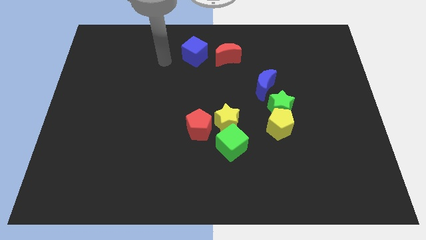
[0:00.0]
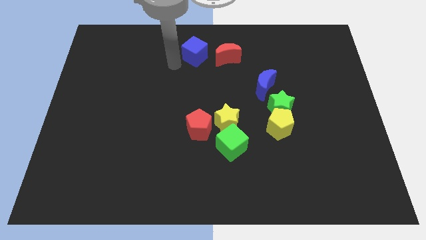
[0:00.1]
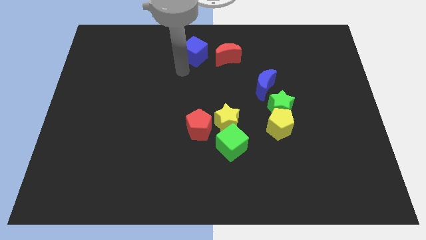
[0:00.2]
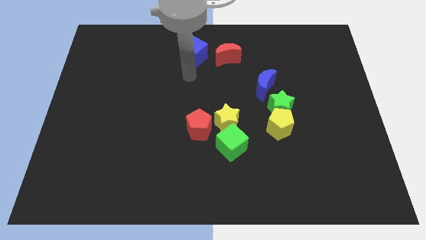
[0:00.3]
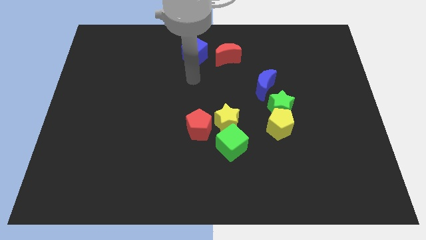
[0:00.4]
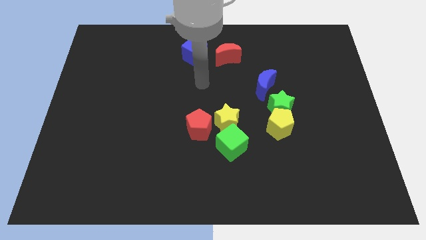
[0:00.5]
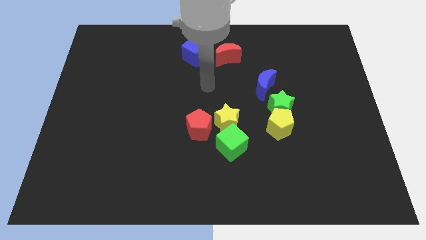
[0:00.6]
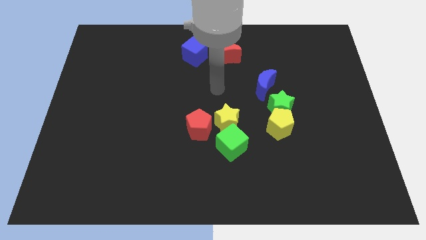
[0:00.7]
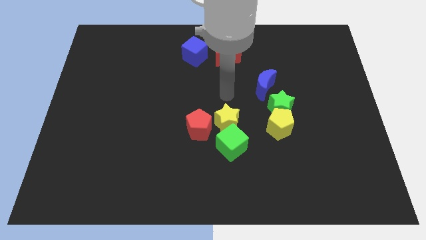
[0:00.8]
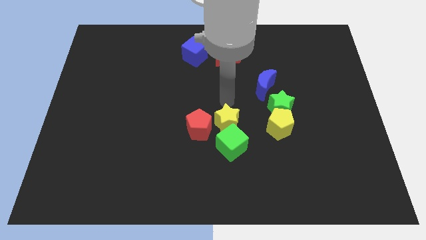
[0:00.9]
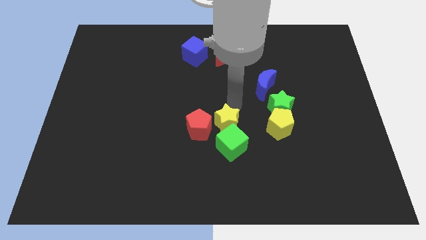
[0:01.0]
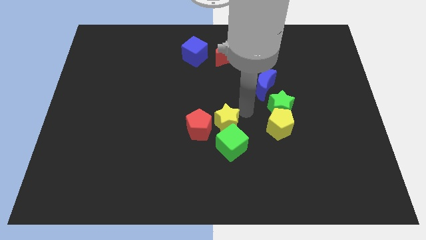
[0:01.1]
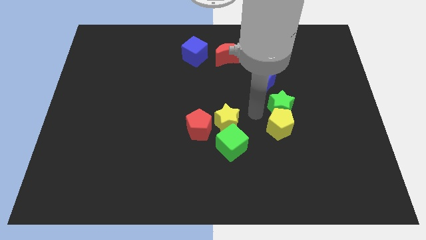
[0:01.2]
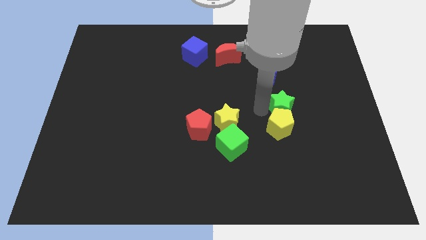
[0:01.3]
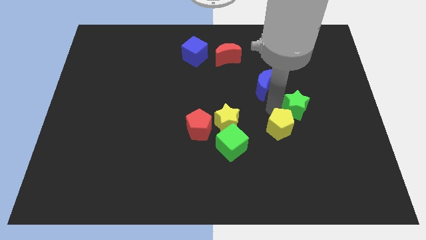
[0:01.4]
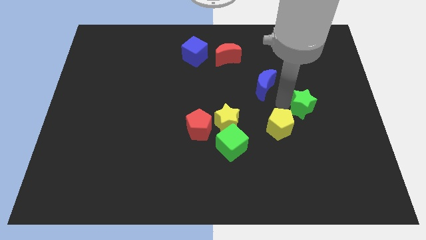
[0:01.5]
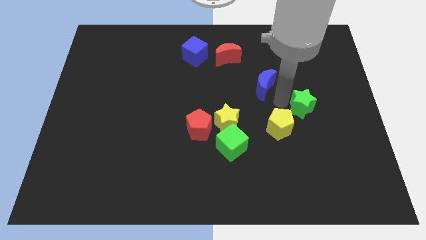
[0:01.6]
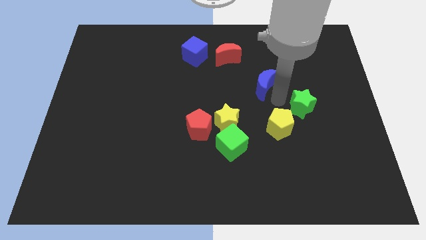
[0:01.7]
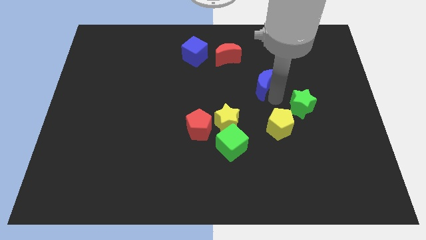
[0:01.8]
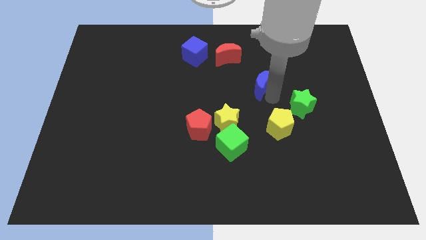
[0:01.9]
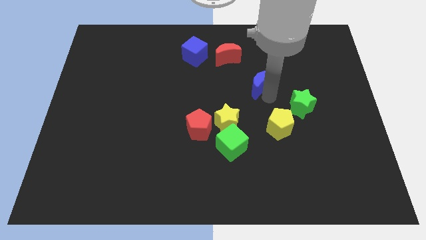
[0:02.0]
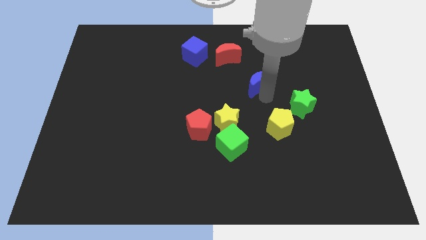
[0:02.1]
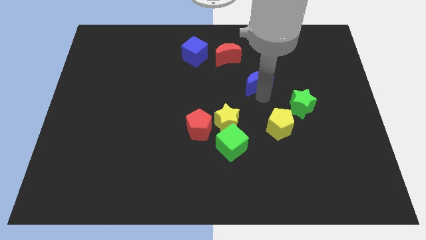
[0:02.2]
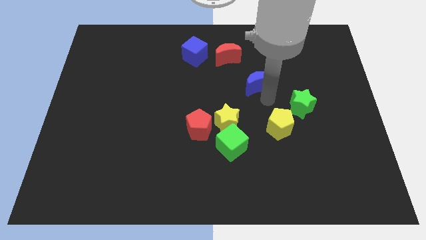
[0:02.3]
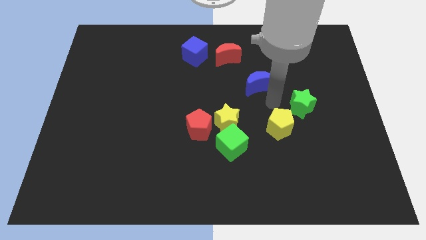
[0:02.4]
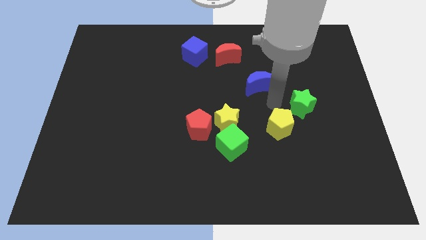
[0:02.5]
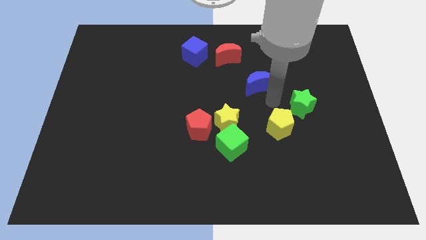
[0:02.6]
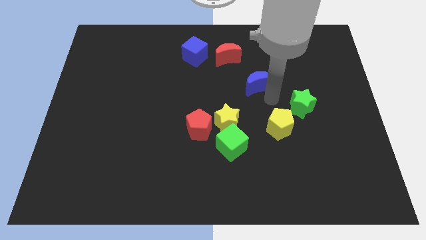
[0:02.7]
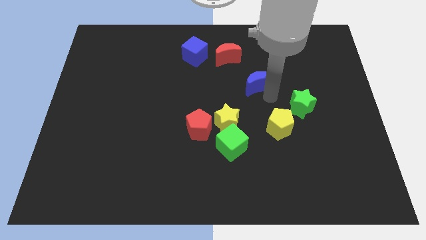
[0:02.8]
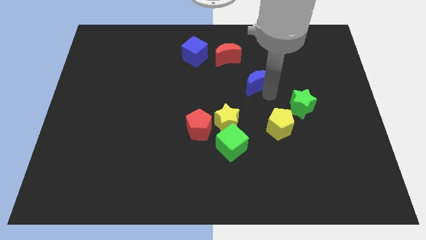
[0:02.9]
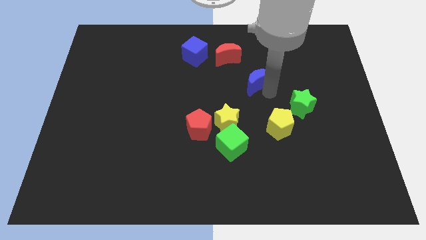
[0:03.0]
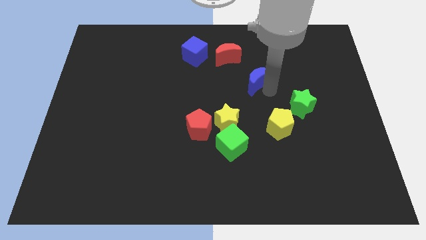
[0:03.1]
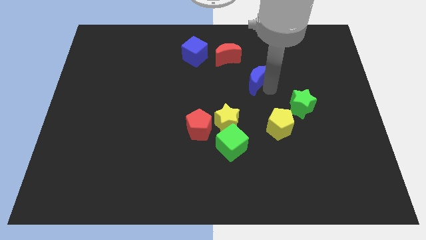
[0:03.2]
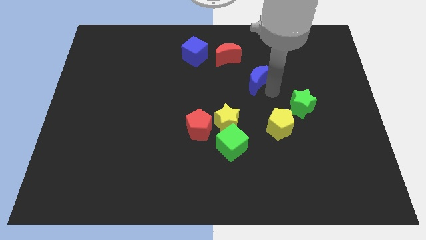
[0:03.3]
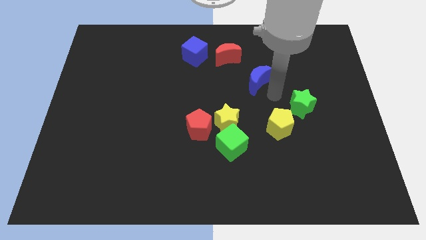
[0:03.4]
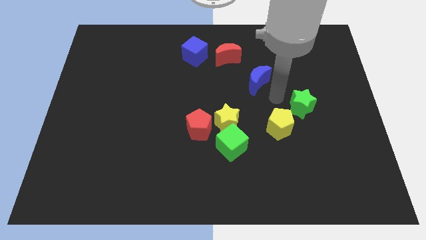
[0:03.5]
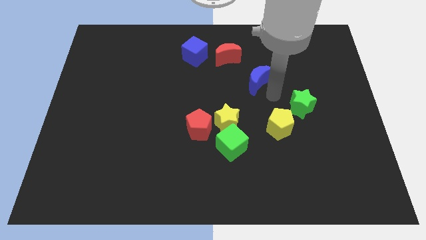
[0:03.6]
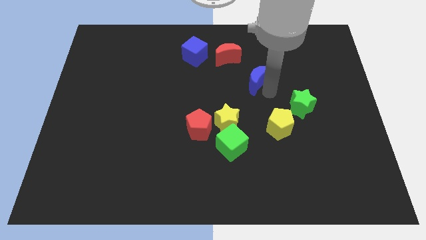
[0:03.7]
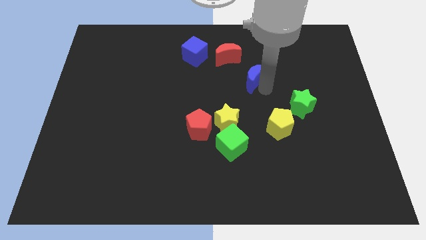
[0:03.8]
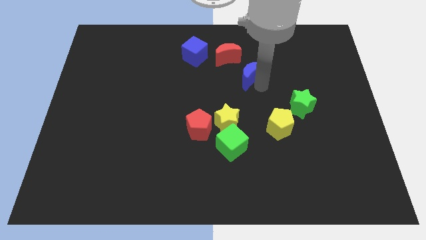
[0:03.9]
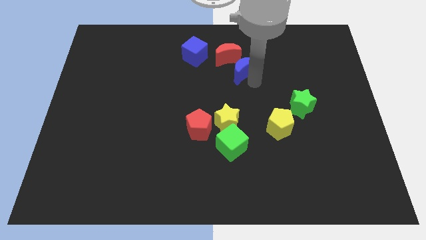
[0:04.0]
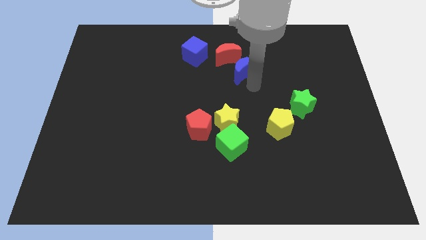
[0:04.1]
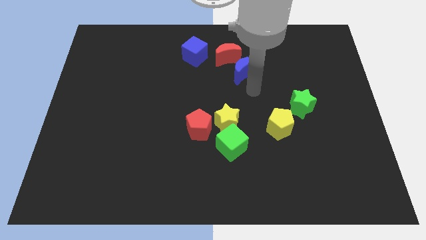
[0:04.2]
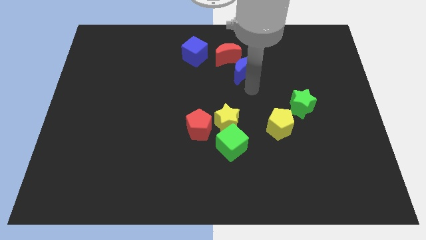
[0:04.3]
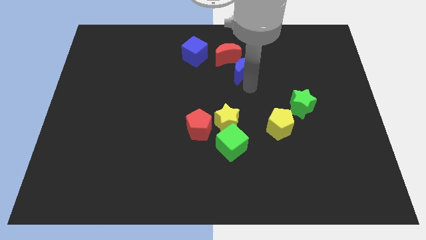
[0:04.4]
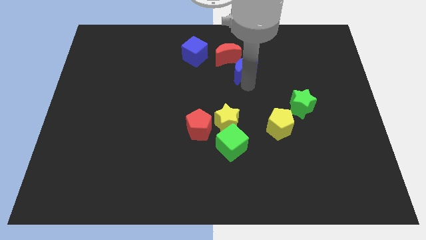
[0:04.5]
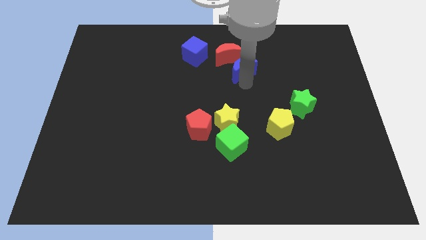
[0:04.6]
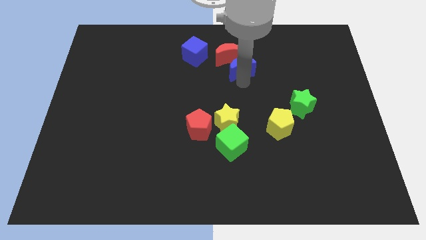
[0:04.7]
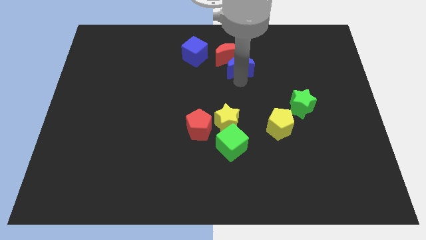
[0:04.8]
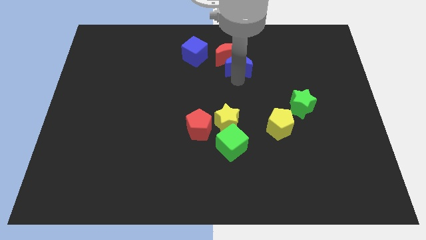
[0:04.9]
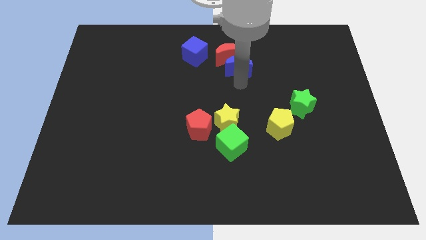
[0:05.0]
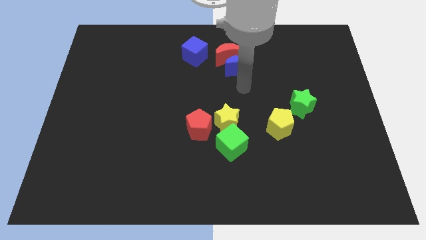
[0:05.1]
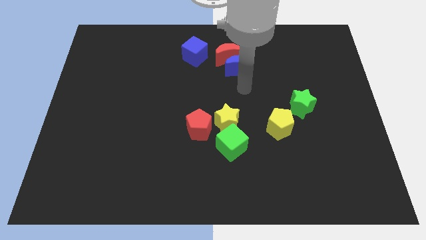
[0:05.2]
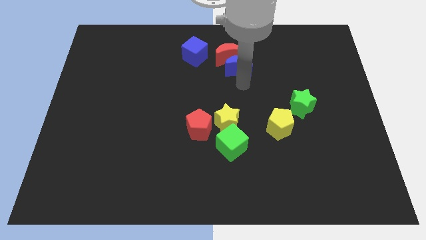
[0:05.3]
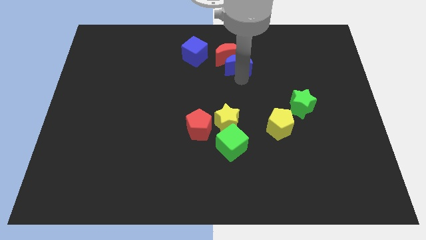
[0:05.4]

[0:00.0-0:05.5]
put the blue moon to the right side of the blue cube

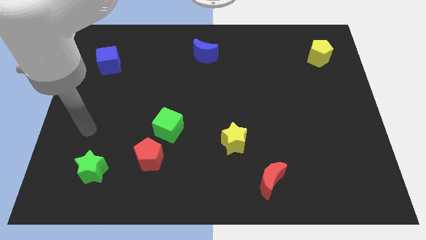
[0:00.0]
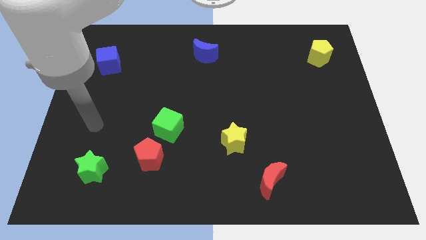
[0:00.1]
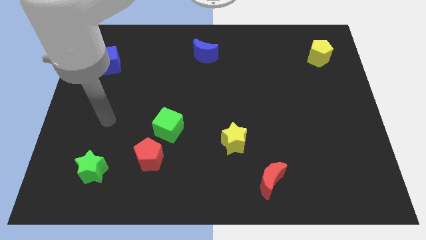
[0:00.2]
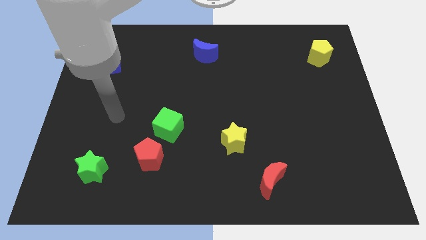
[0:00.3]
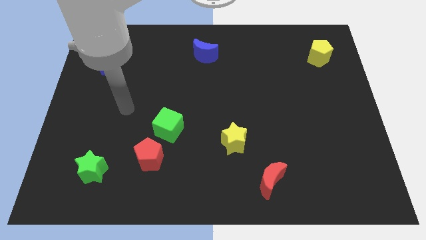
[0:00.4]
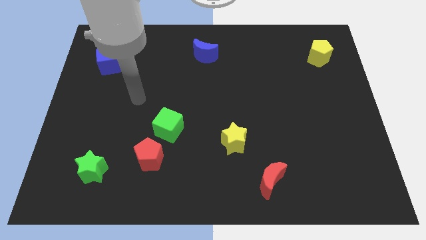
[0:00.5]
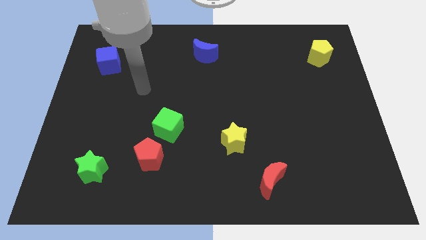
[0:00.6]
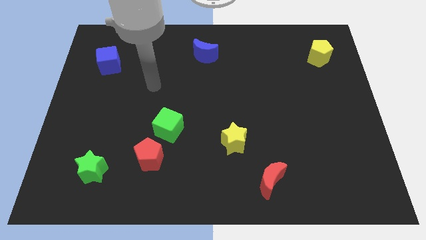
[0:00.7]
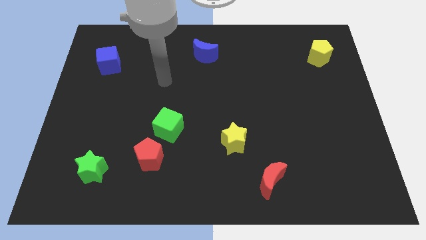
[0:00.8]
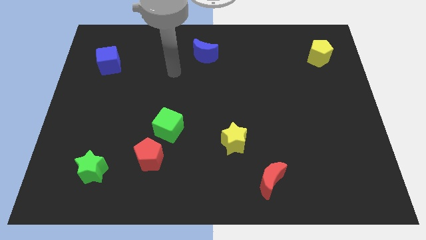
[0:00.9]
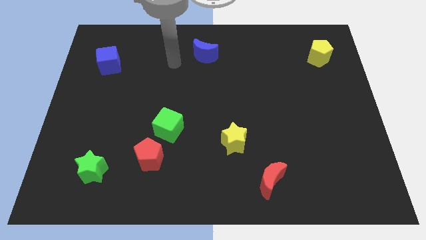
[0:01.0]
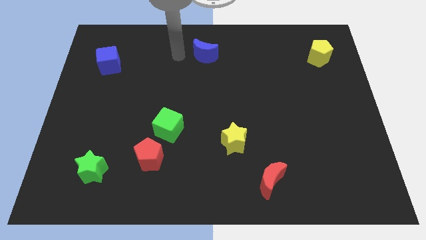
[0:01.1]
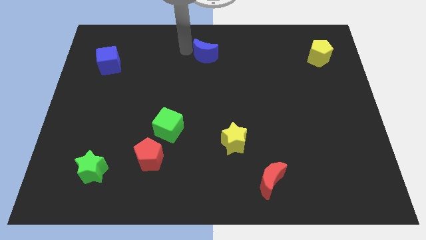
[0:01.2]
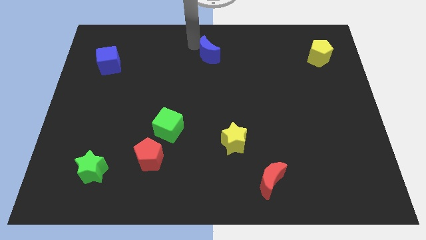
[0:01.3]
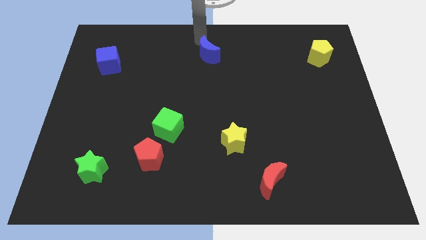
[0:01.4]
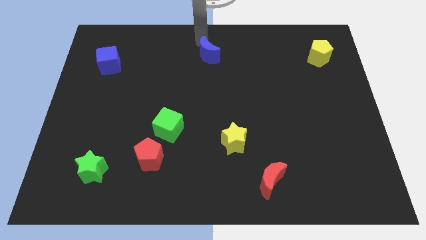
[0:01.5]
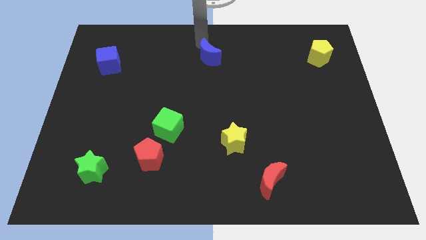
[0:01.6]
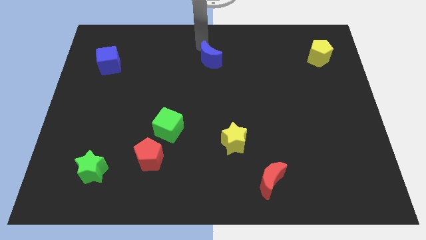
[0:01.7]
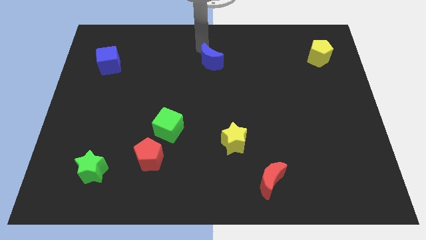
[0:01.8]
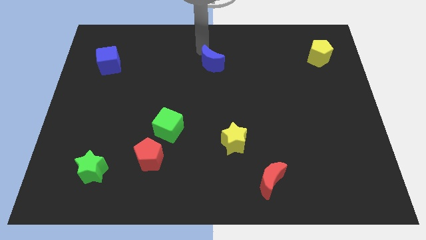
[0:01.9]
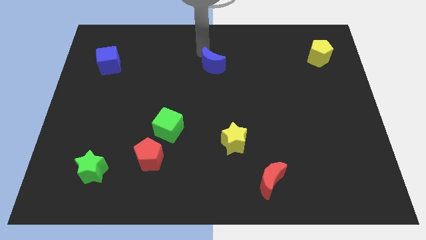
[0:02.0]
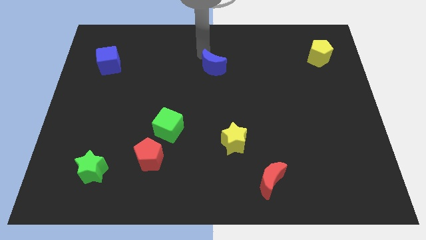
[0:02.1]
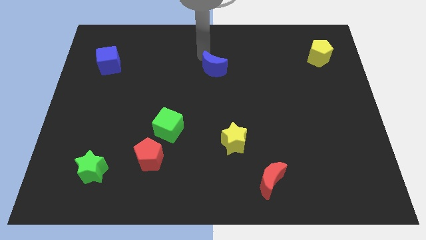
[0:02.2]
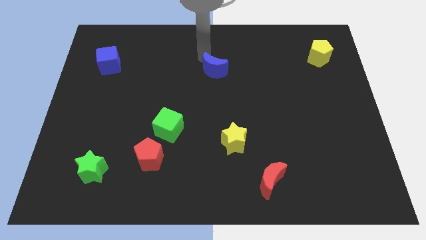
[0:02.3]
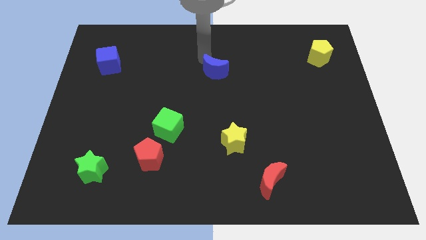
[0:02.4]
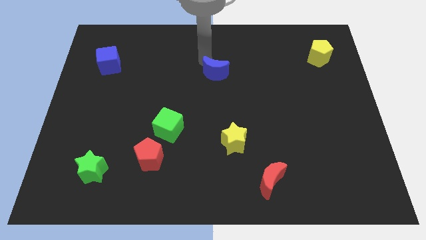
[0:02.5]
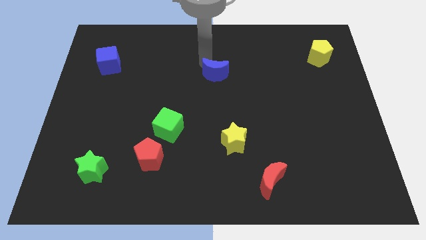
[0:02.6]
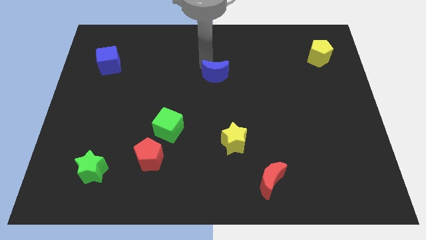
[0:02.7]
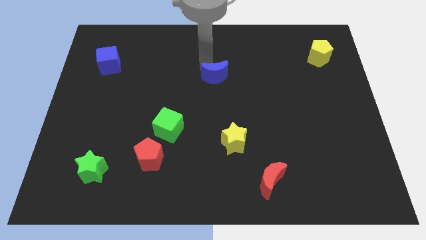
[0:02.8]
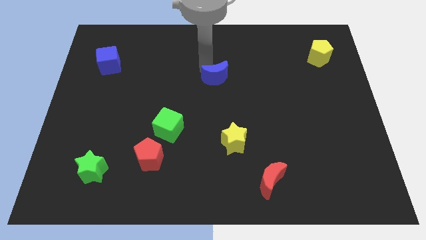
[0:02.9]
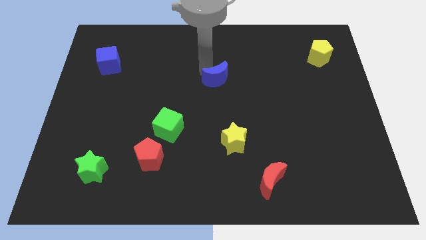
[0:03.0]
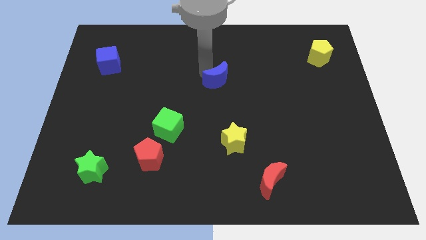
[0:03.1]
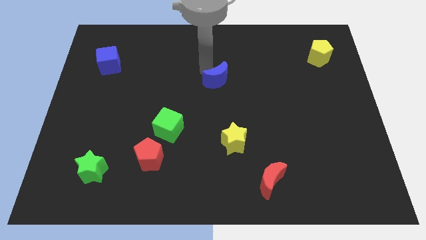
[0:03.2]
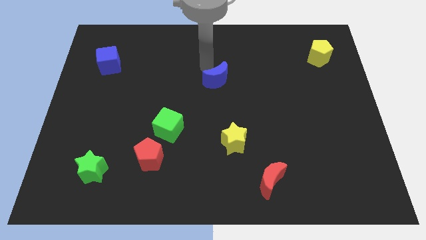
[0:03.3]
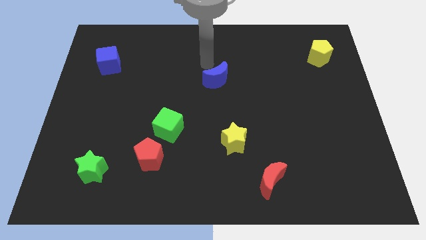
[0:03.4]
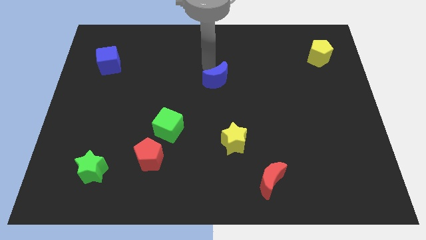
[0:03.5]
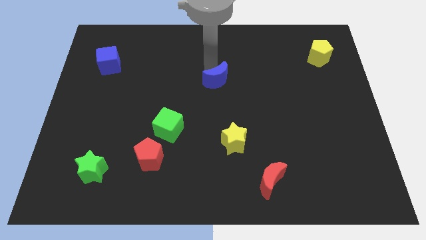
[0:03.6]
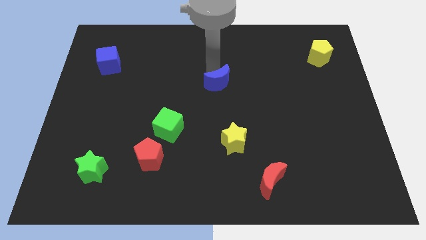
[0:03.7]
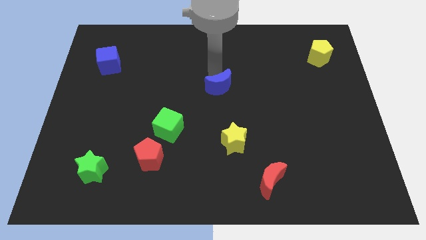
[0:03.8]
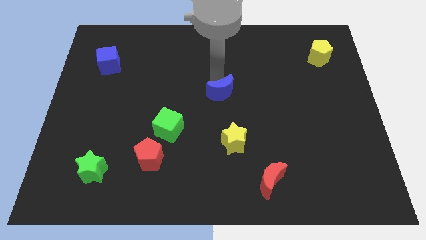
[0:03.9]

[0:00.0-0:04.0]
push the blue moon to the top of the yellow star
